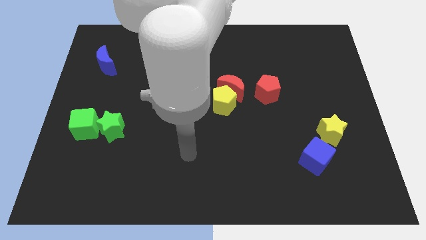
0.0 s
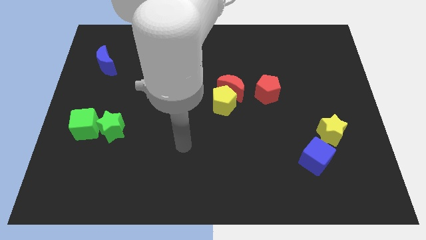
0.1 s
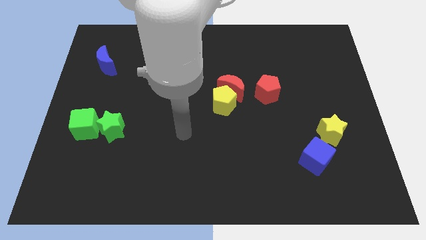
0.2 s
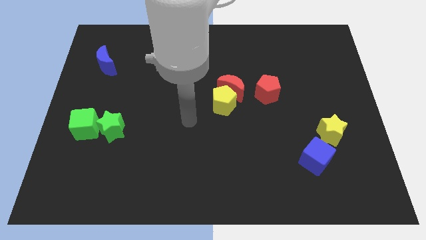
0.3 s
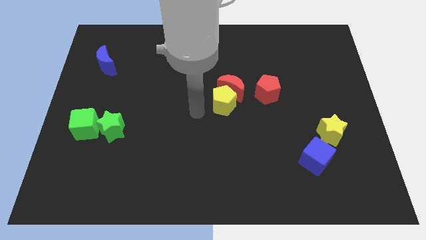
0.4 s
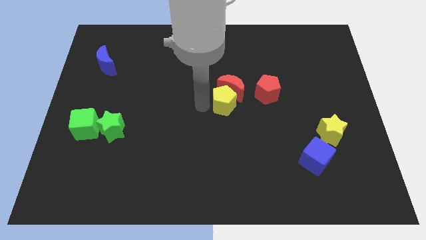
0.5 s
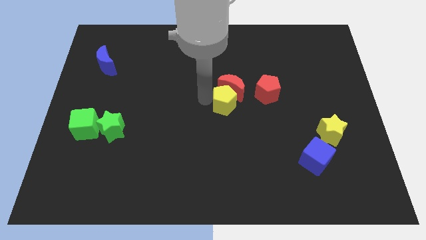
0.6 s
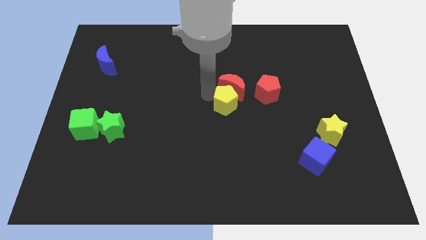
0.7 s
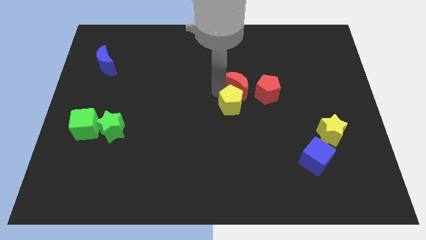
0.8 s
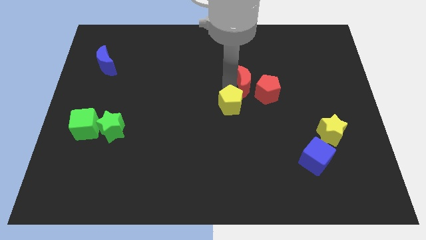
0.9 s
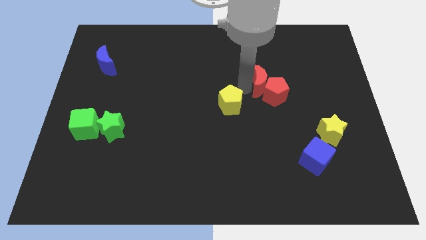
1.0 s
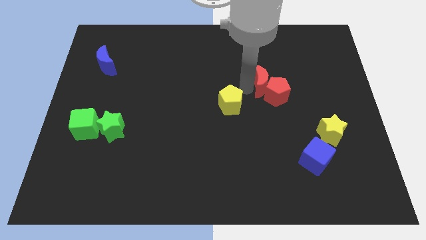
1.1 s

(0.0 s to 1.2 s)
pull the yellow pentagon apart from the red moon

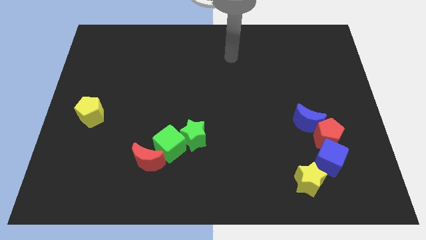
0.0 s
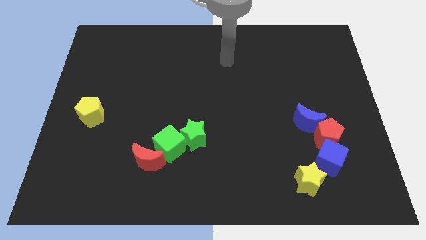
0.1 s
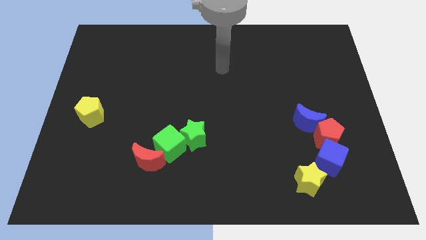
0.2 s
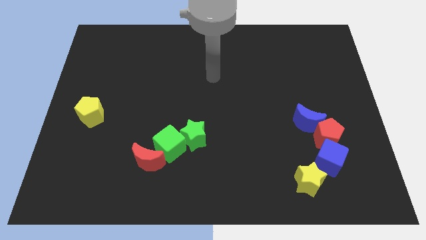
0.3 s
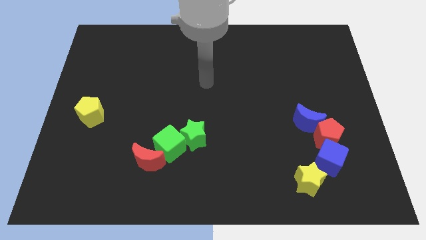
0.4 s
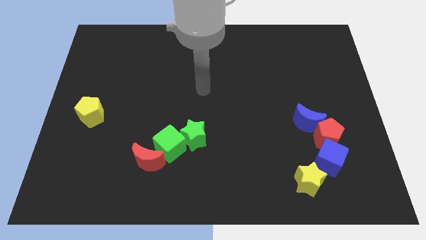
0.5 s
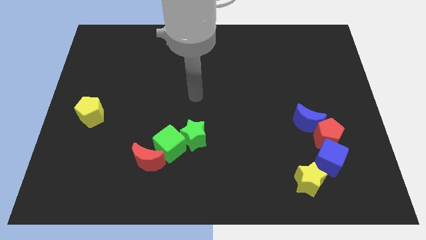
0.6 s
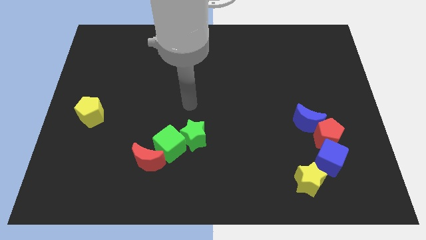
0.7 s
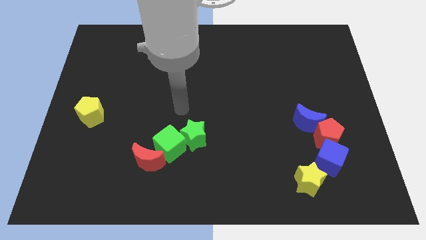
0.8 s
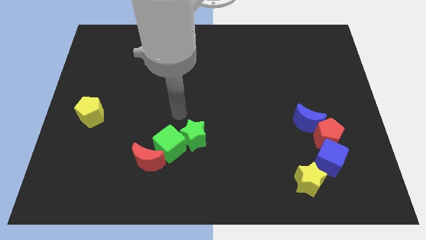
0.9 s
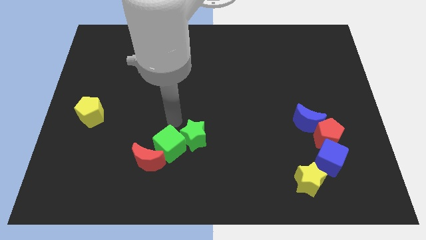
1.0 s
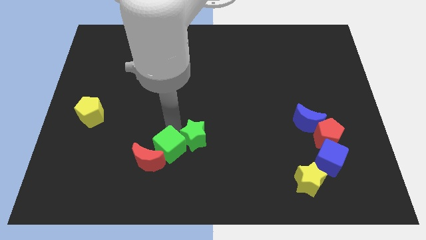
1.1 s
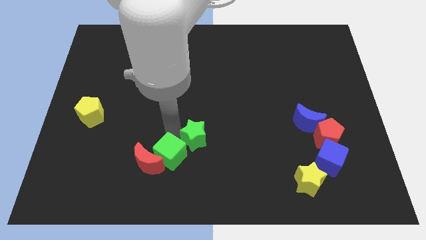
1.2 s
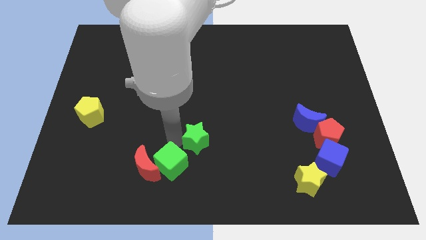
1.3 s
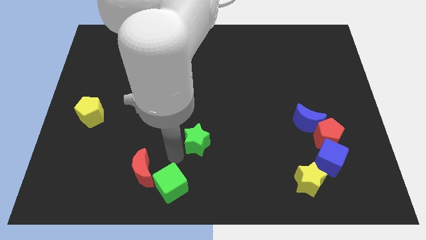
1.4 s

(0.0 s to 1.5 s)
pull the green star apart from the green cube

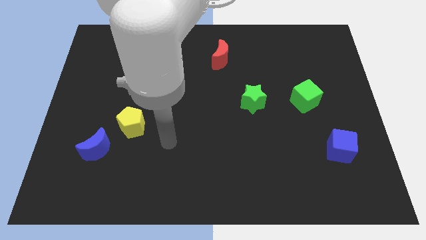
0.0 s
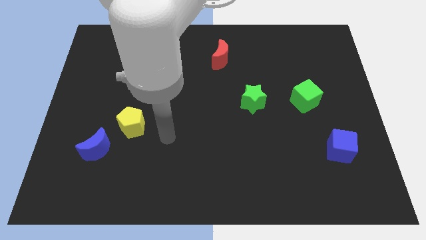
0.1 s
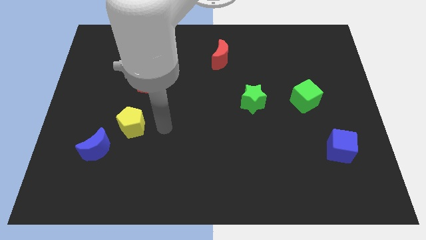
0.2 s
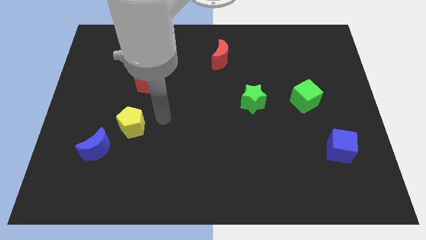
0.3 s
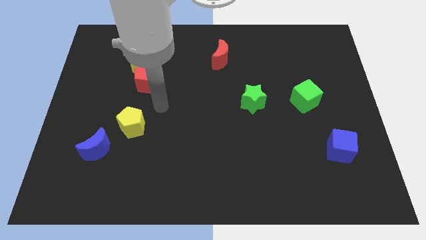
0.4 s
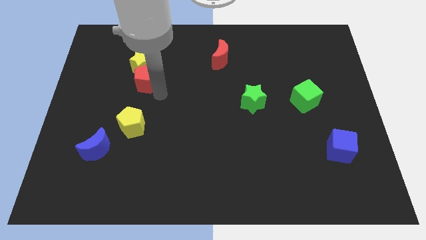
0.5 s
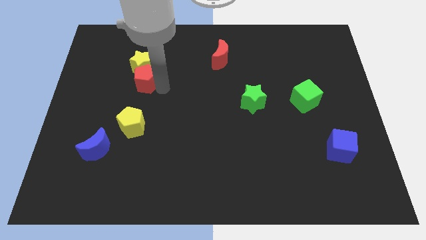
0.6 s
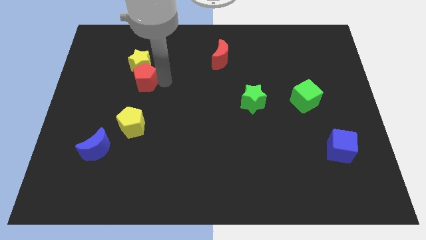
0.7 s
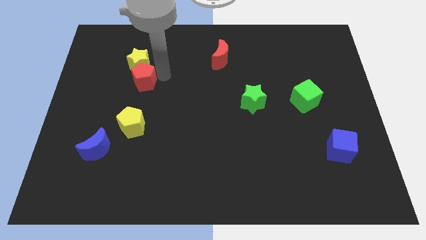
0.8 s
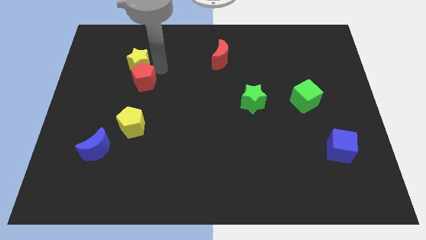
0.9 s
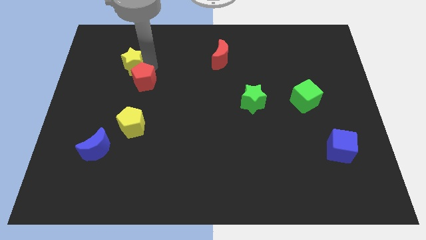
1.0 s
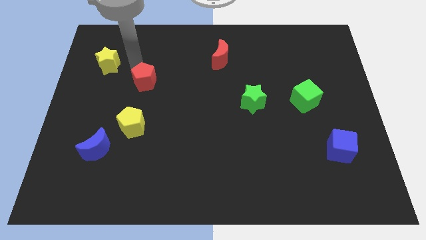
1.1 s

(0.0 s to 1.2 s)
separate the red pentagon from the yellow star

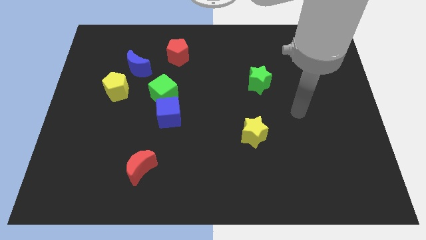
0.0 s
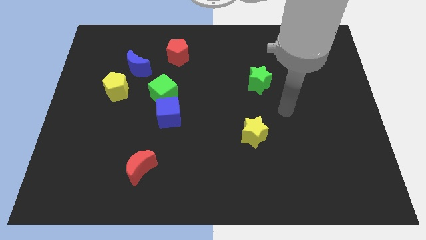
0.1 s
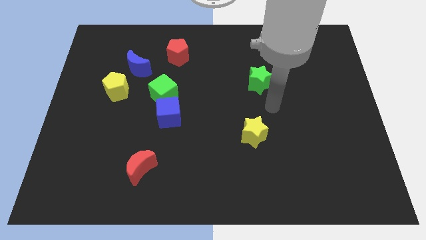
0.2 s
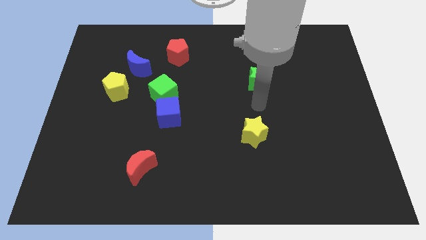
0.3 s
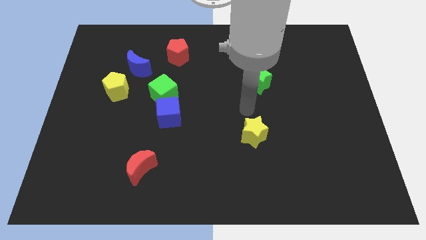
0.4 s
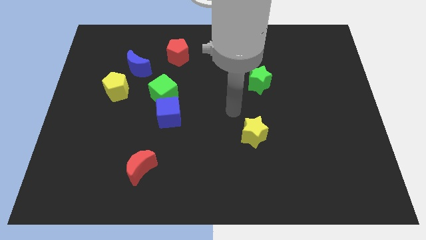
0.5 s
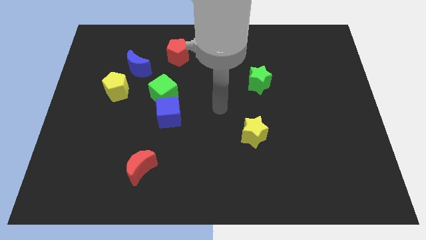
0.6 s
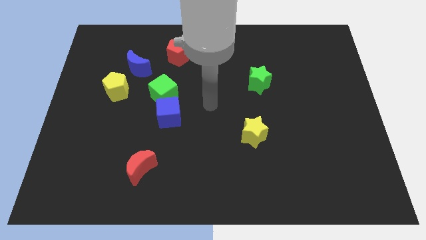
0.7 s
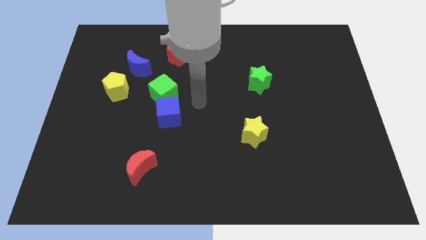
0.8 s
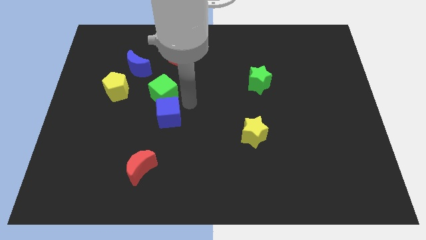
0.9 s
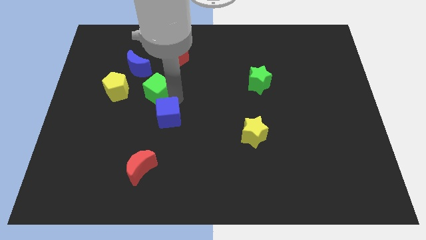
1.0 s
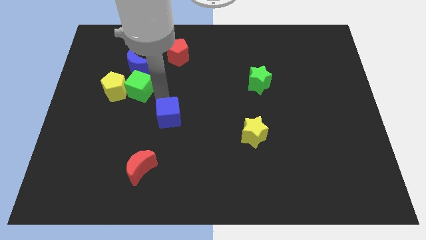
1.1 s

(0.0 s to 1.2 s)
separate the blue cube from the green cube

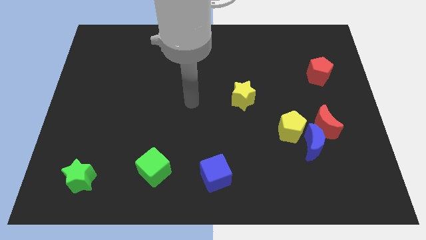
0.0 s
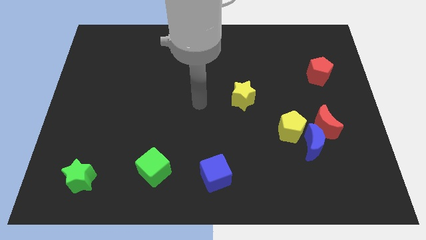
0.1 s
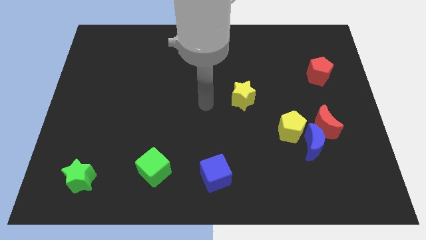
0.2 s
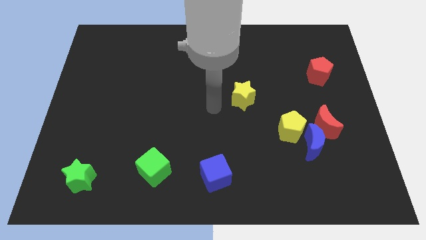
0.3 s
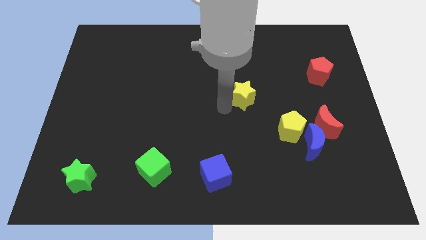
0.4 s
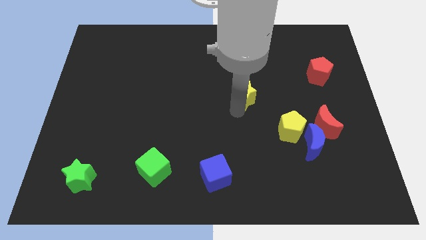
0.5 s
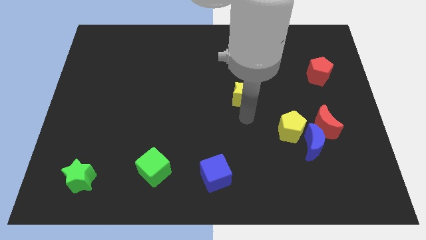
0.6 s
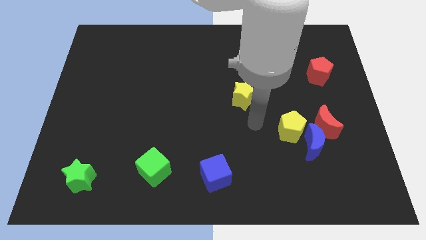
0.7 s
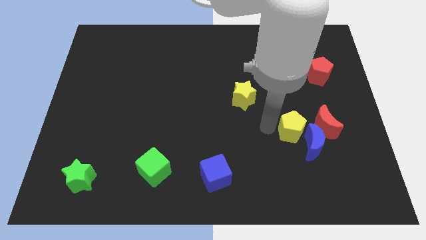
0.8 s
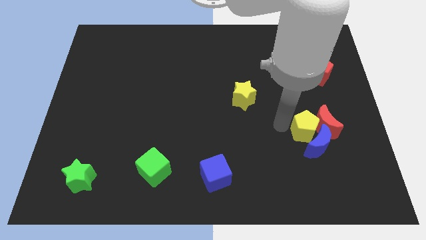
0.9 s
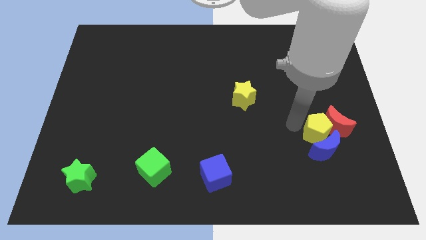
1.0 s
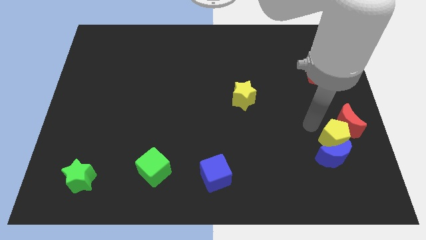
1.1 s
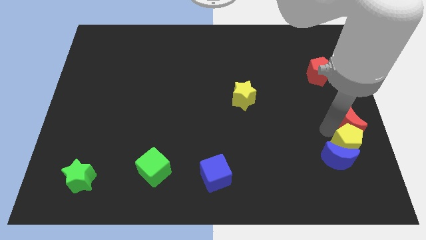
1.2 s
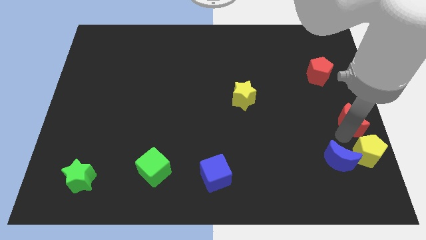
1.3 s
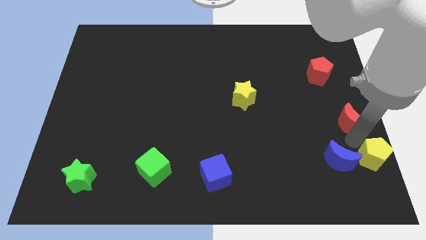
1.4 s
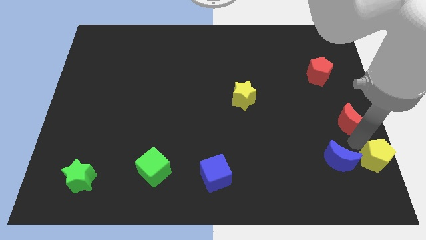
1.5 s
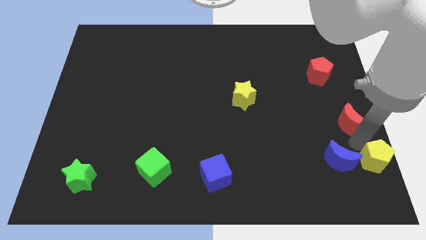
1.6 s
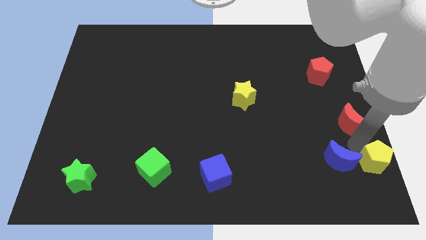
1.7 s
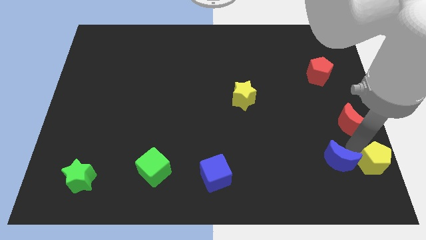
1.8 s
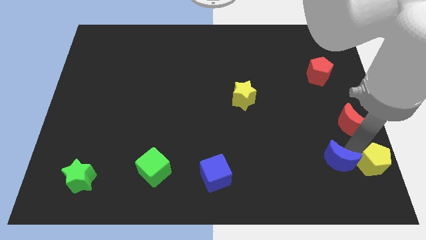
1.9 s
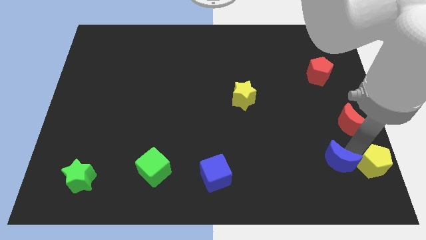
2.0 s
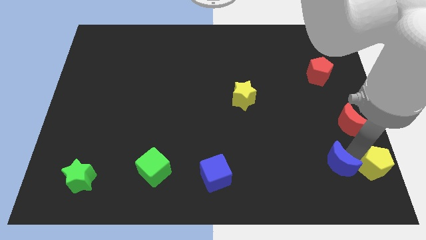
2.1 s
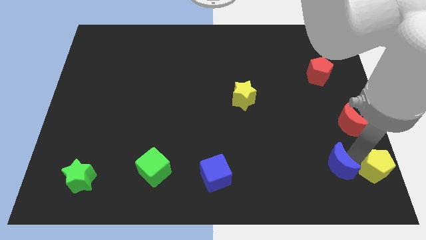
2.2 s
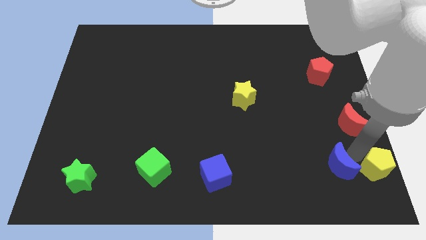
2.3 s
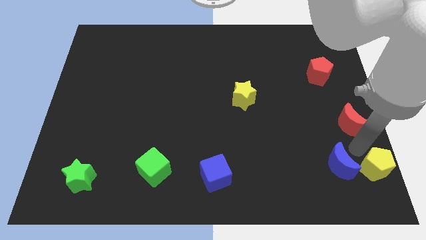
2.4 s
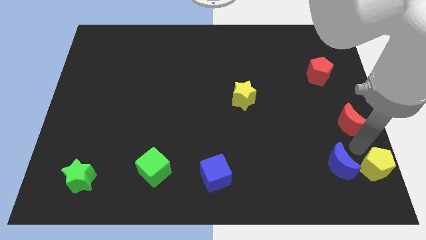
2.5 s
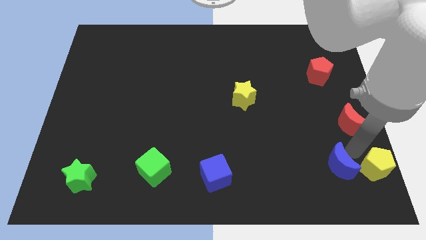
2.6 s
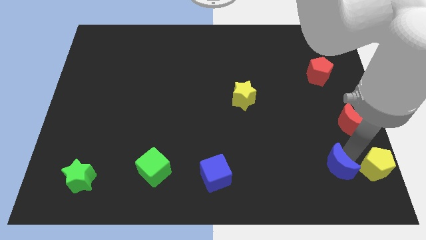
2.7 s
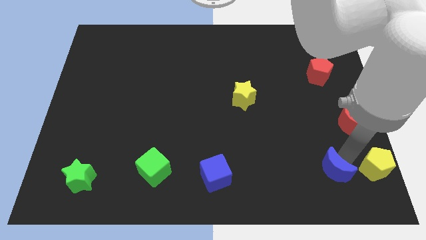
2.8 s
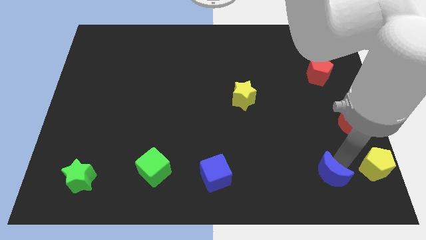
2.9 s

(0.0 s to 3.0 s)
move the blue moon away from the yellow pentagon and red moon

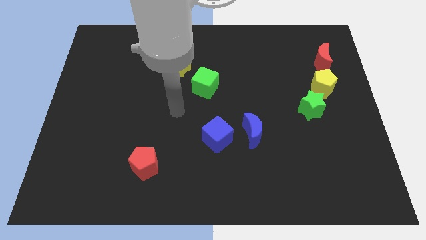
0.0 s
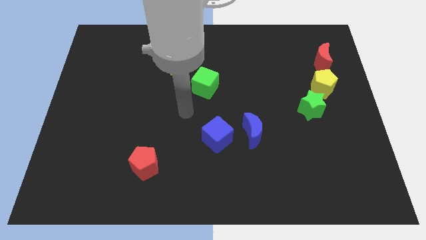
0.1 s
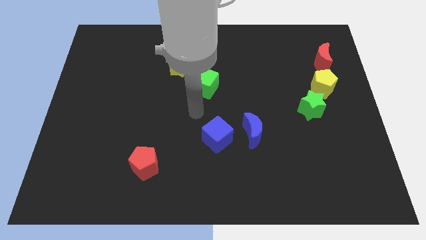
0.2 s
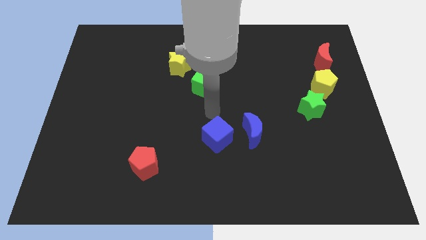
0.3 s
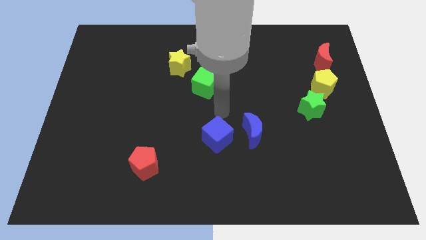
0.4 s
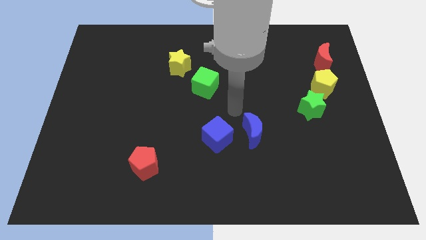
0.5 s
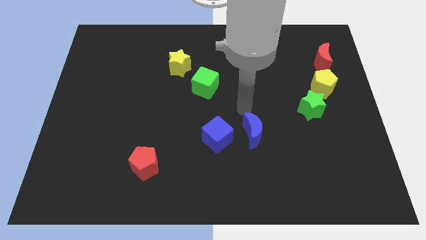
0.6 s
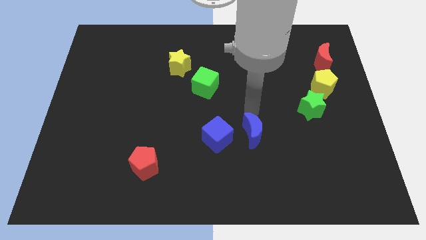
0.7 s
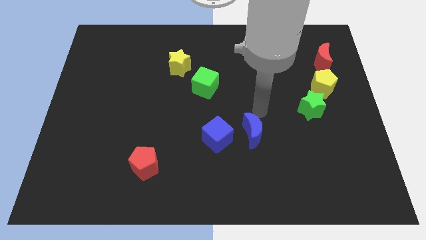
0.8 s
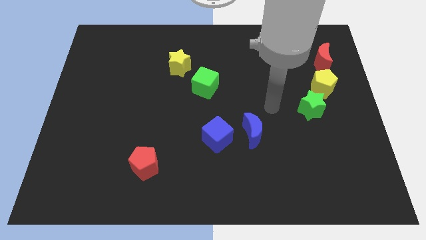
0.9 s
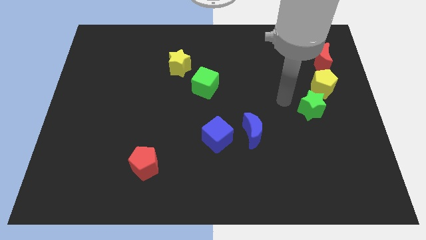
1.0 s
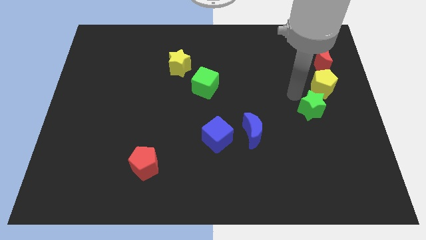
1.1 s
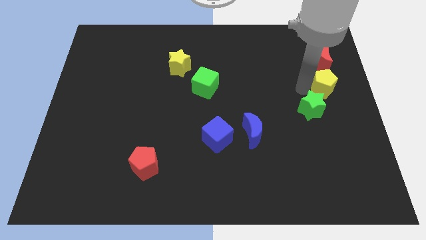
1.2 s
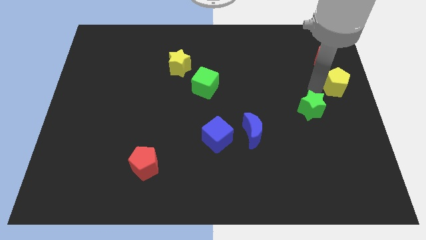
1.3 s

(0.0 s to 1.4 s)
pull the green star apart from the yellow pentagon
